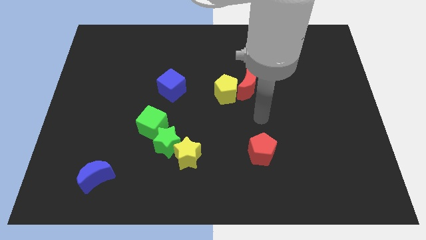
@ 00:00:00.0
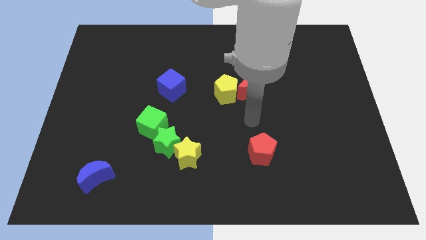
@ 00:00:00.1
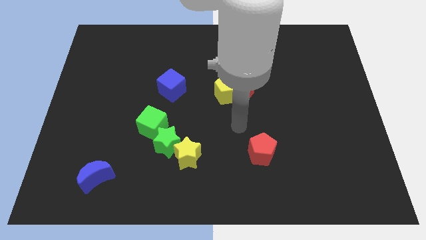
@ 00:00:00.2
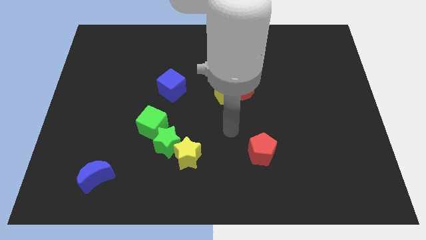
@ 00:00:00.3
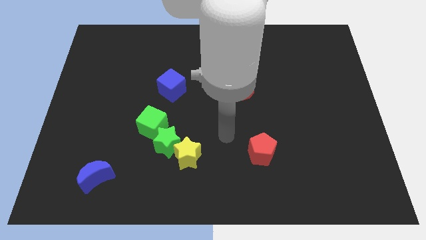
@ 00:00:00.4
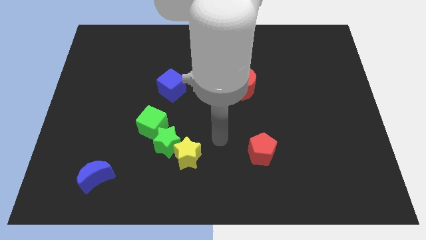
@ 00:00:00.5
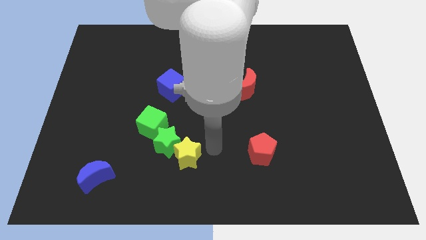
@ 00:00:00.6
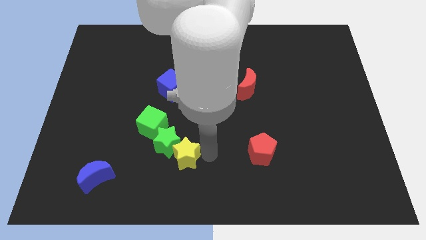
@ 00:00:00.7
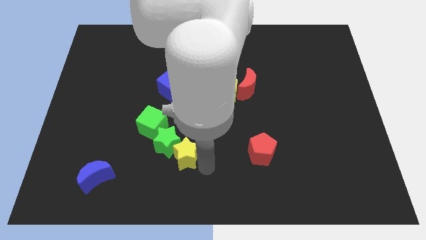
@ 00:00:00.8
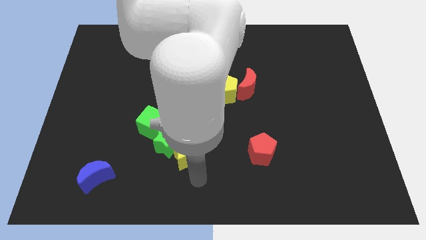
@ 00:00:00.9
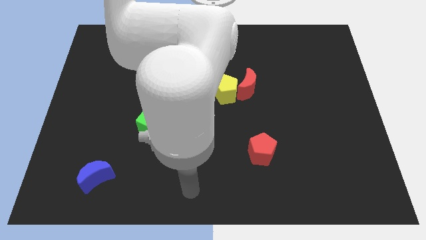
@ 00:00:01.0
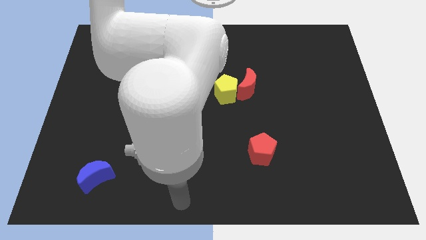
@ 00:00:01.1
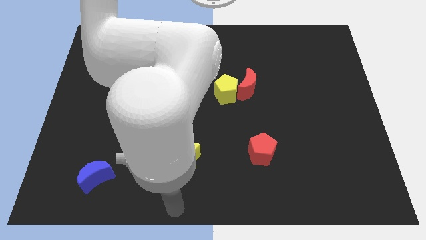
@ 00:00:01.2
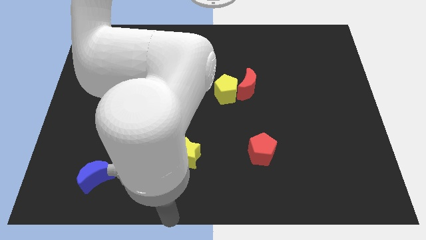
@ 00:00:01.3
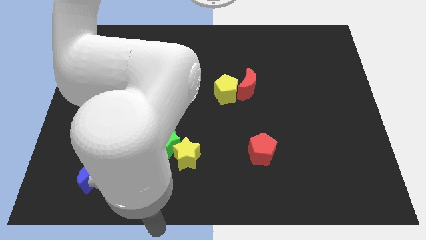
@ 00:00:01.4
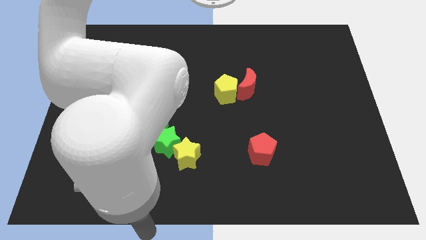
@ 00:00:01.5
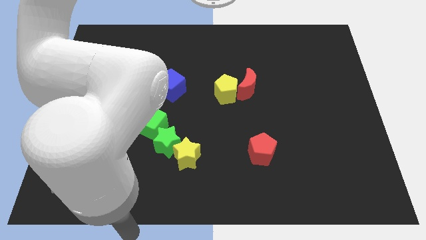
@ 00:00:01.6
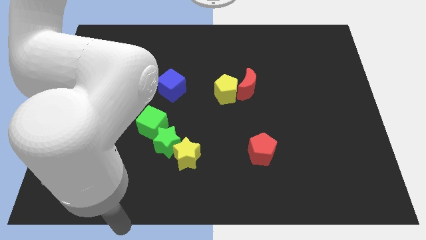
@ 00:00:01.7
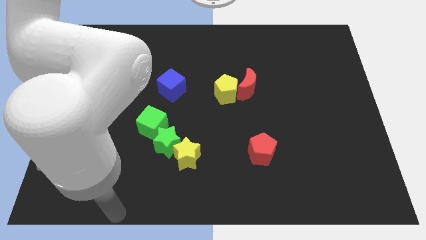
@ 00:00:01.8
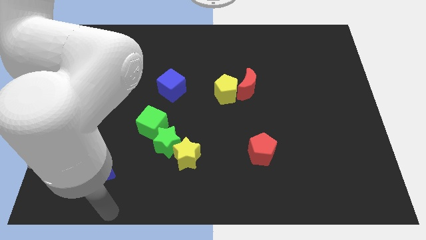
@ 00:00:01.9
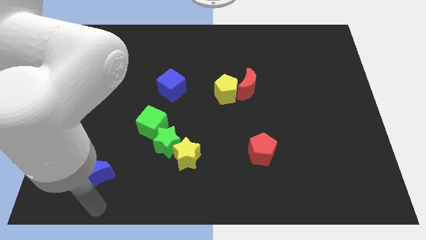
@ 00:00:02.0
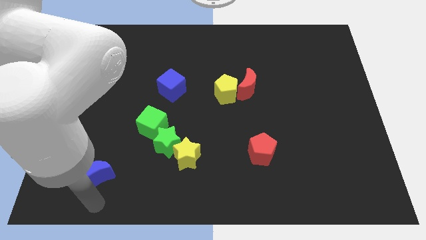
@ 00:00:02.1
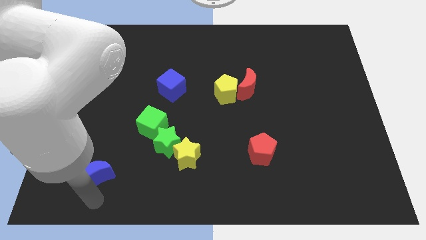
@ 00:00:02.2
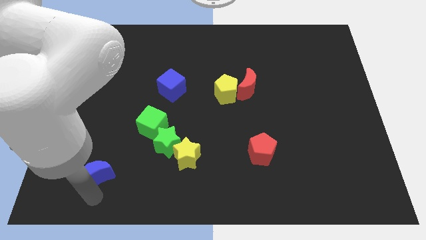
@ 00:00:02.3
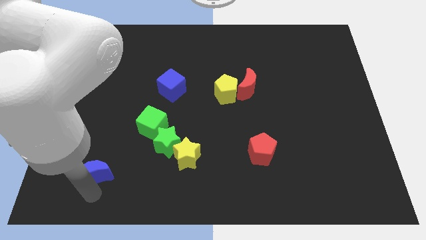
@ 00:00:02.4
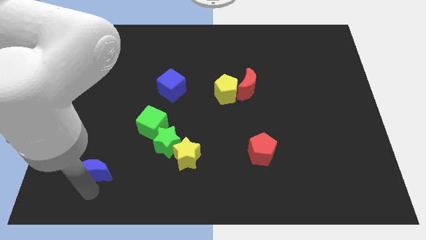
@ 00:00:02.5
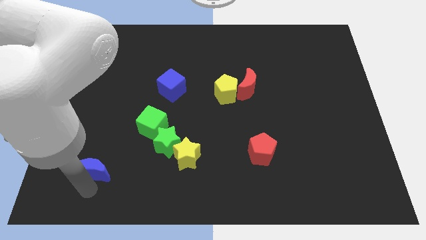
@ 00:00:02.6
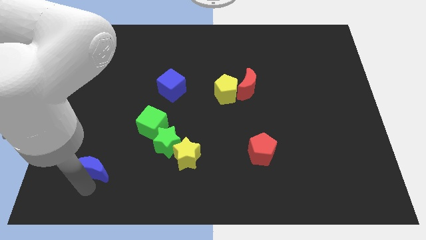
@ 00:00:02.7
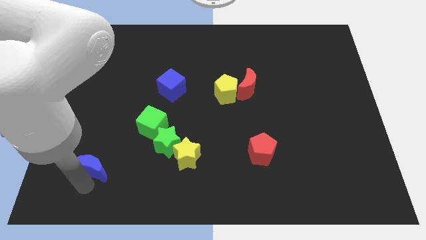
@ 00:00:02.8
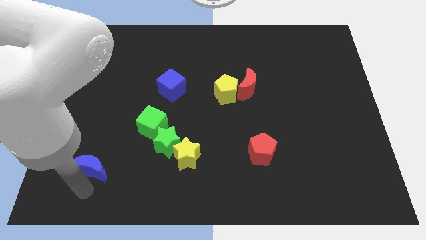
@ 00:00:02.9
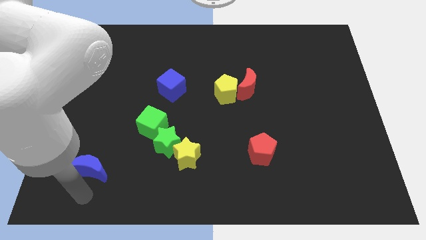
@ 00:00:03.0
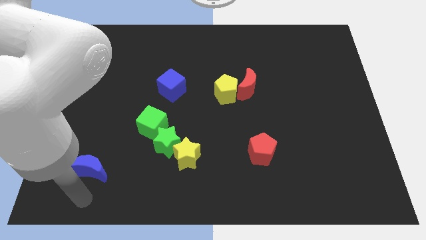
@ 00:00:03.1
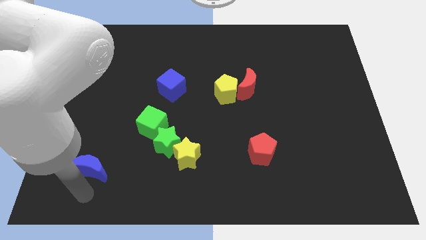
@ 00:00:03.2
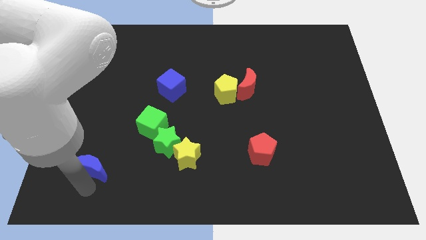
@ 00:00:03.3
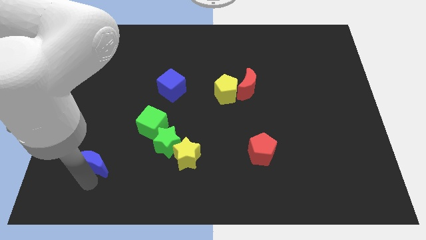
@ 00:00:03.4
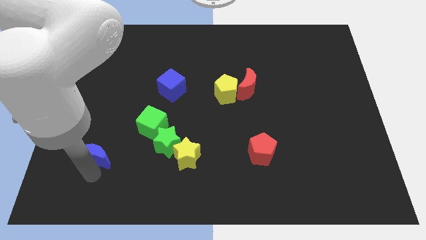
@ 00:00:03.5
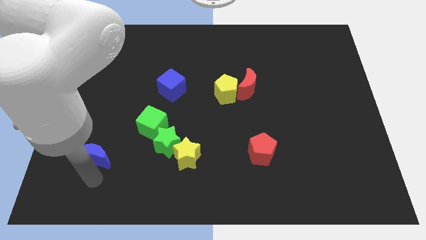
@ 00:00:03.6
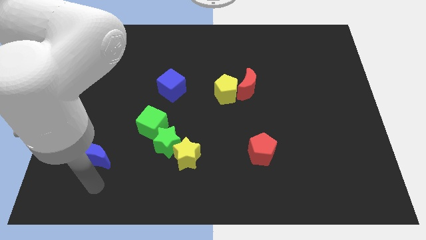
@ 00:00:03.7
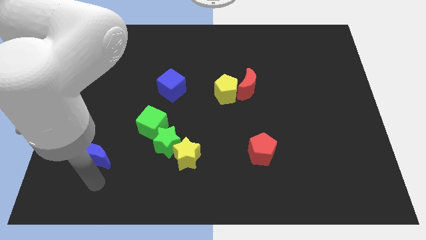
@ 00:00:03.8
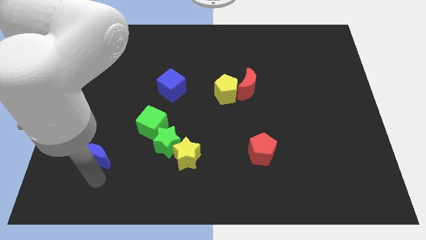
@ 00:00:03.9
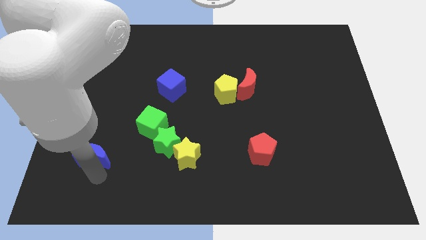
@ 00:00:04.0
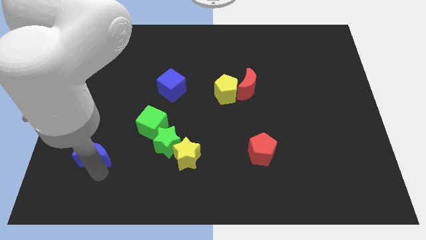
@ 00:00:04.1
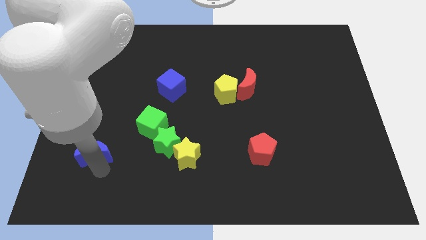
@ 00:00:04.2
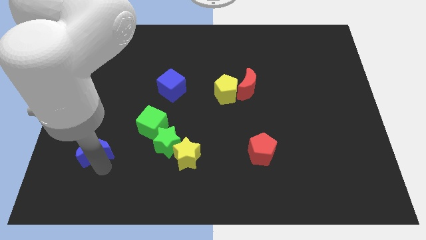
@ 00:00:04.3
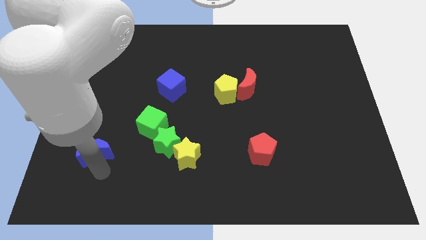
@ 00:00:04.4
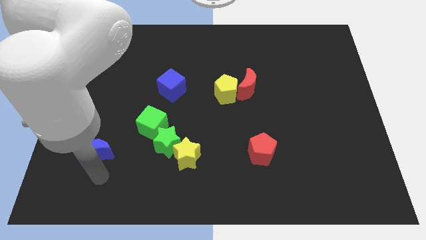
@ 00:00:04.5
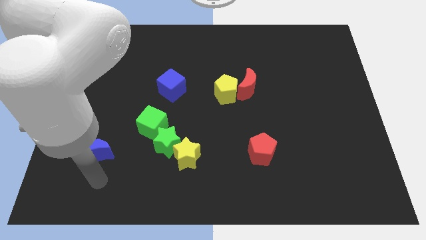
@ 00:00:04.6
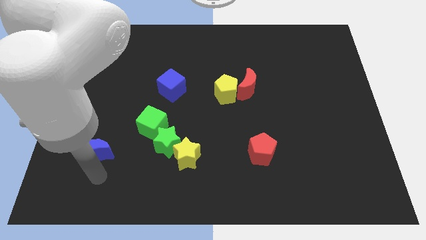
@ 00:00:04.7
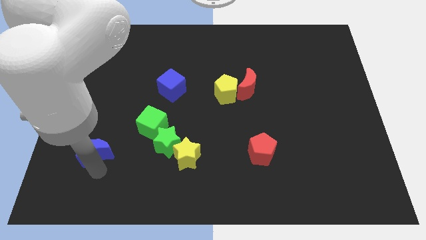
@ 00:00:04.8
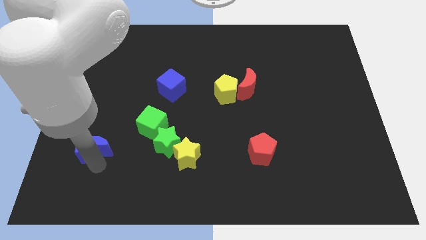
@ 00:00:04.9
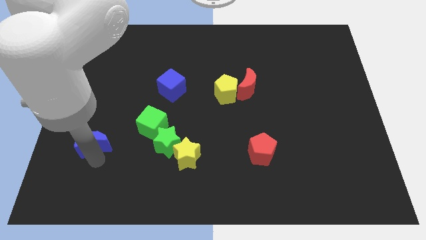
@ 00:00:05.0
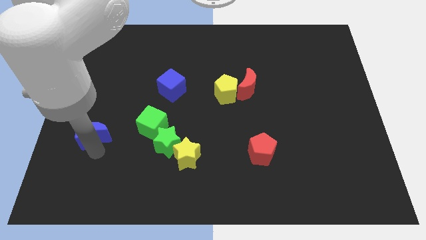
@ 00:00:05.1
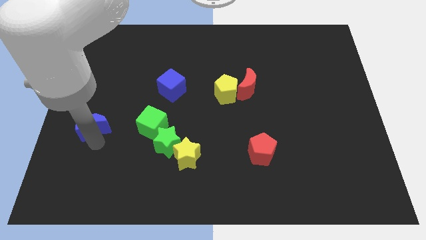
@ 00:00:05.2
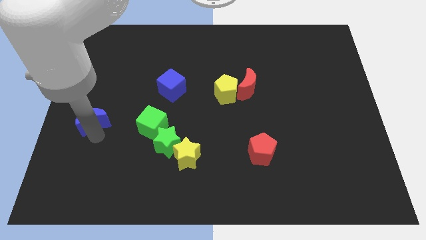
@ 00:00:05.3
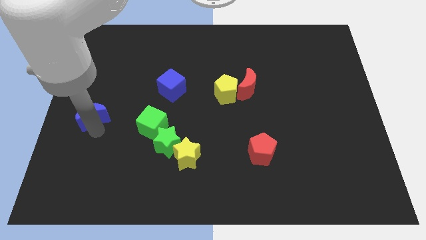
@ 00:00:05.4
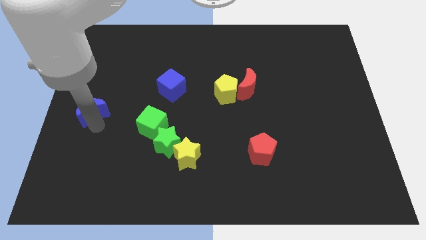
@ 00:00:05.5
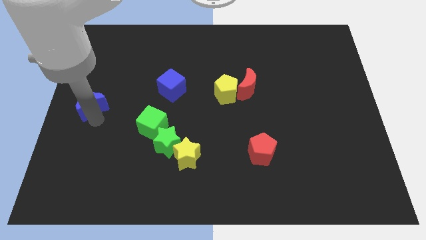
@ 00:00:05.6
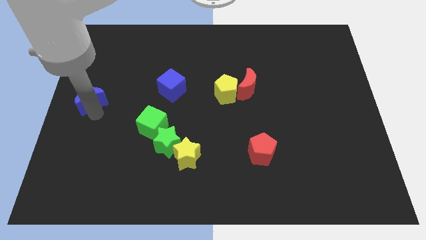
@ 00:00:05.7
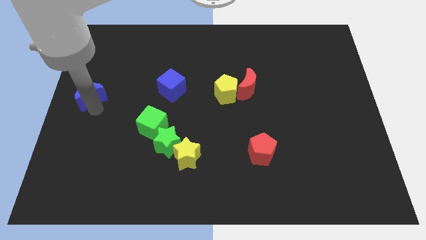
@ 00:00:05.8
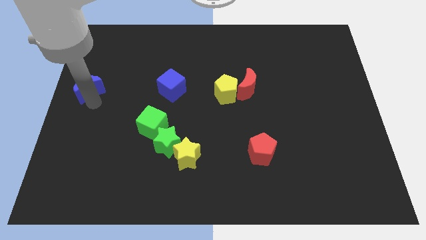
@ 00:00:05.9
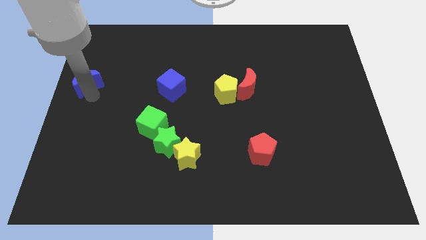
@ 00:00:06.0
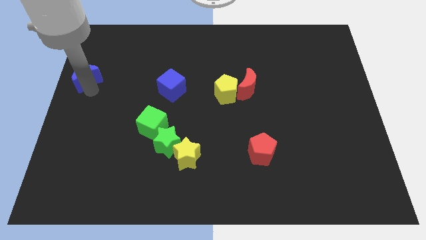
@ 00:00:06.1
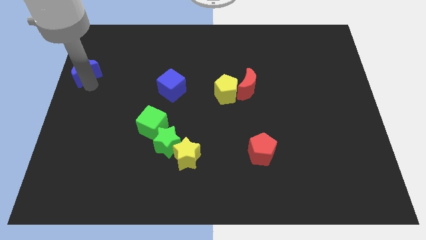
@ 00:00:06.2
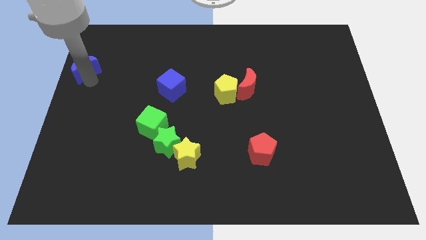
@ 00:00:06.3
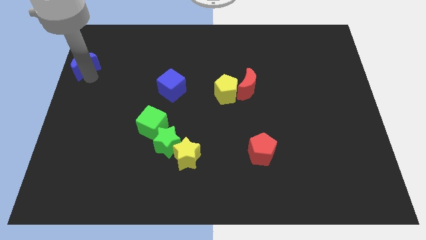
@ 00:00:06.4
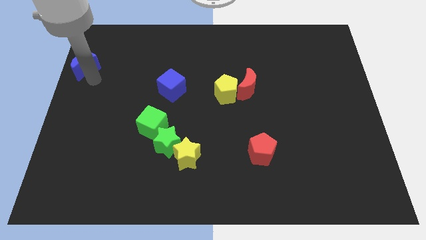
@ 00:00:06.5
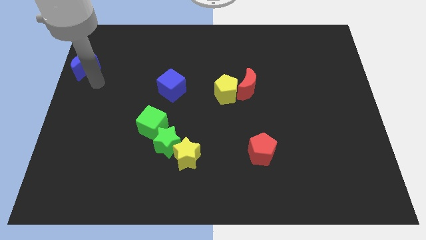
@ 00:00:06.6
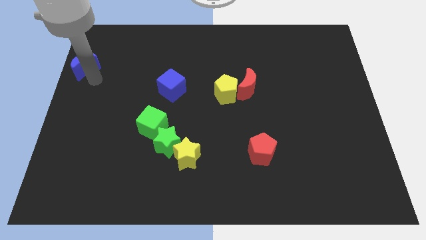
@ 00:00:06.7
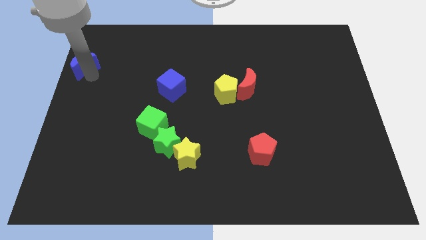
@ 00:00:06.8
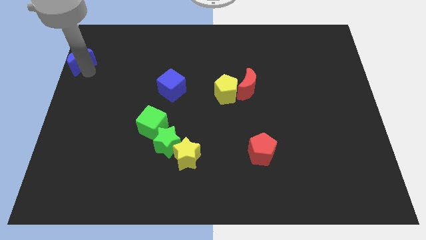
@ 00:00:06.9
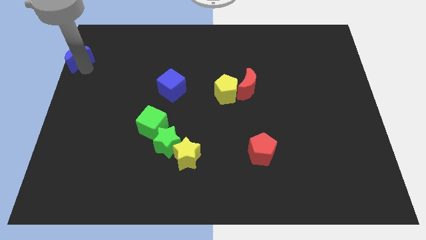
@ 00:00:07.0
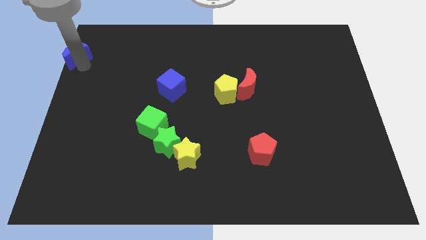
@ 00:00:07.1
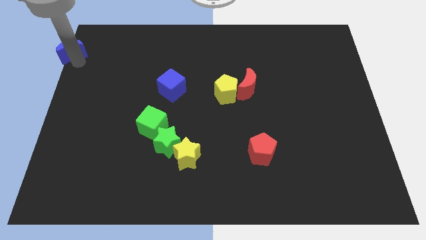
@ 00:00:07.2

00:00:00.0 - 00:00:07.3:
push the blue moon to the top left of the board
